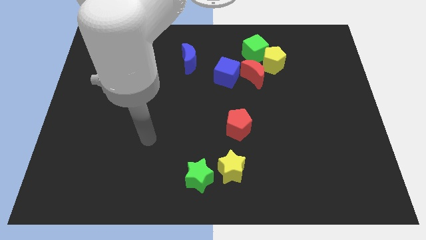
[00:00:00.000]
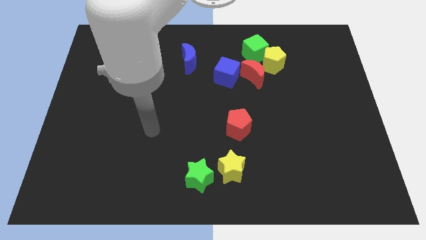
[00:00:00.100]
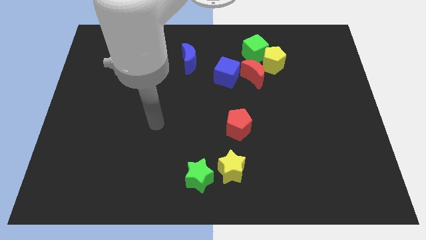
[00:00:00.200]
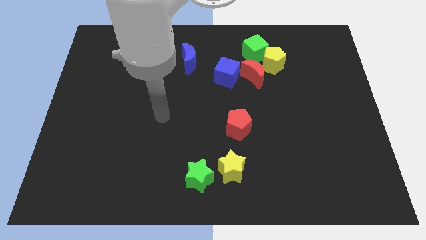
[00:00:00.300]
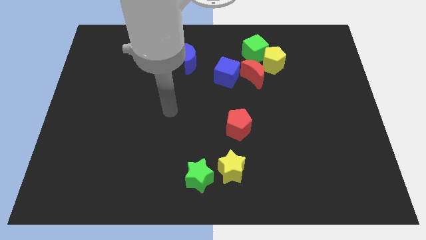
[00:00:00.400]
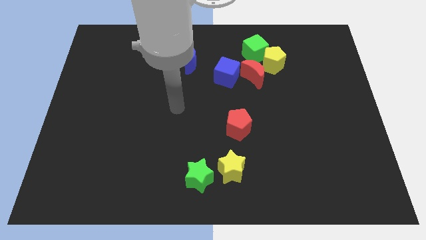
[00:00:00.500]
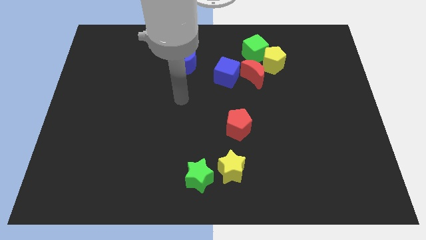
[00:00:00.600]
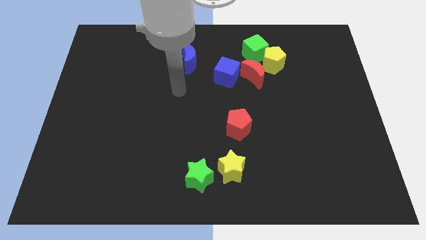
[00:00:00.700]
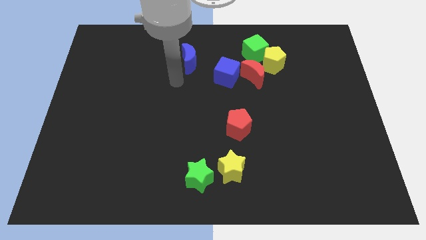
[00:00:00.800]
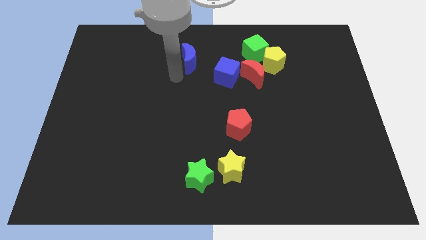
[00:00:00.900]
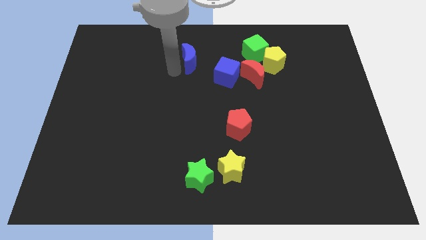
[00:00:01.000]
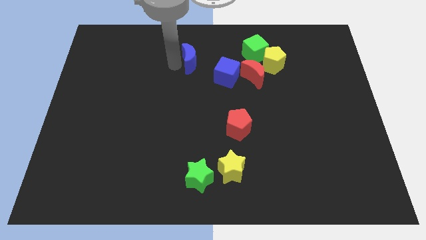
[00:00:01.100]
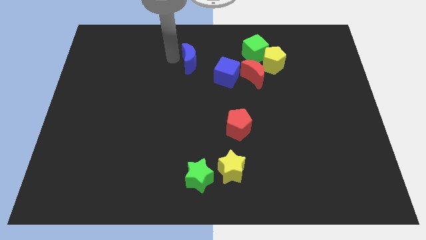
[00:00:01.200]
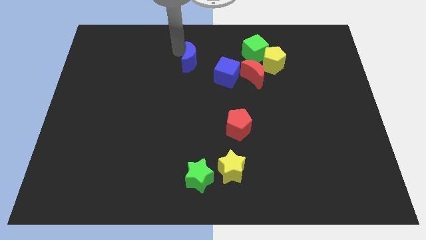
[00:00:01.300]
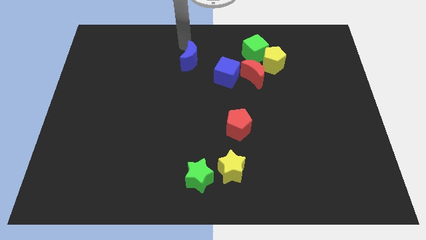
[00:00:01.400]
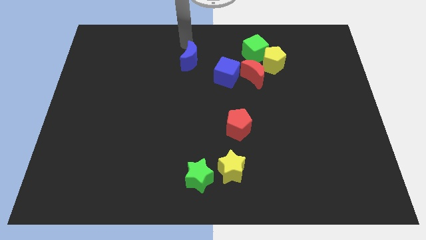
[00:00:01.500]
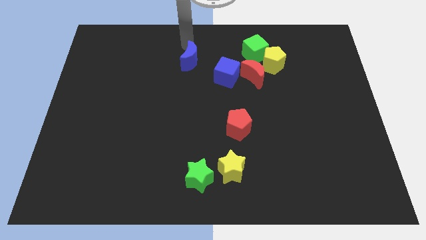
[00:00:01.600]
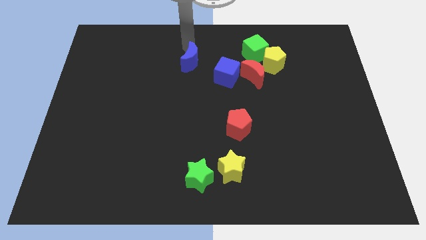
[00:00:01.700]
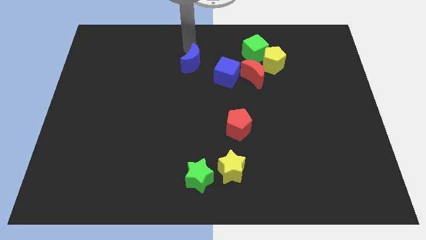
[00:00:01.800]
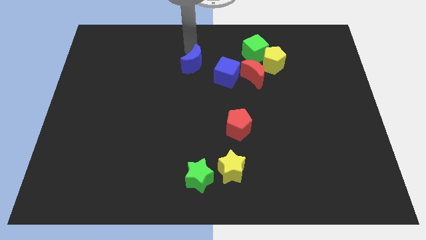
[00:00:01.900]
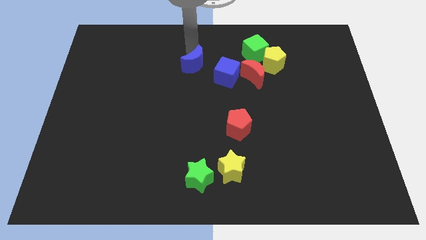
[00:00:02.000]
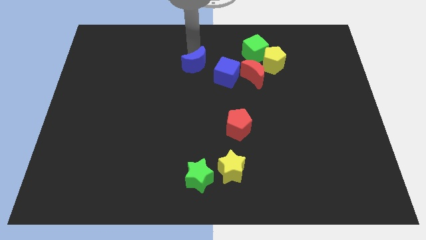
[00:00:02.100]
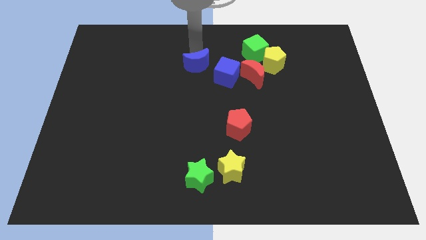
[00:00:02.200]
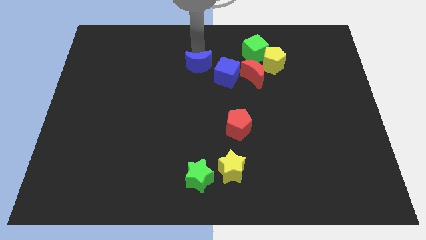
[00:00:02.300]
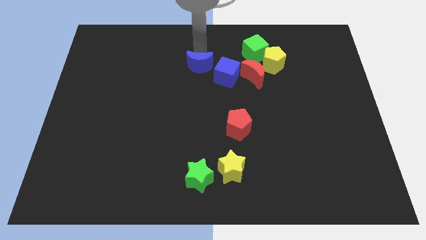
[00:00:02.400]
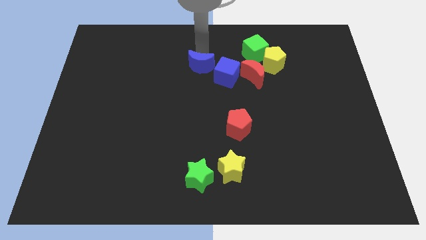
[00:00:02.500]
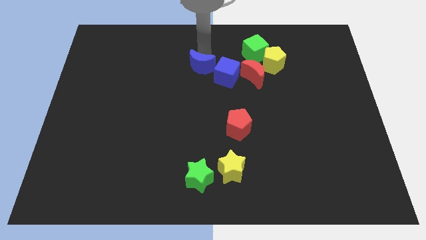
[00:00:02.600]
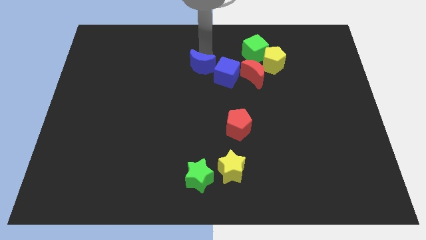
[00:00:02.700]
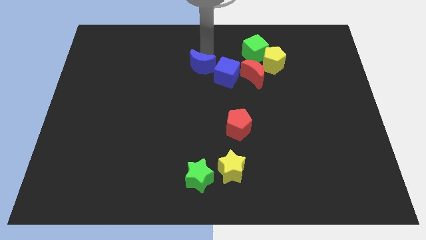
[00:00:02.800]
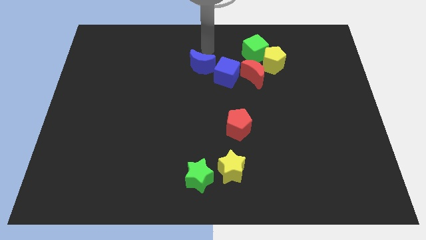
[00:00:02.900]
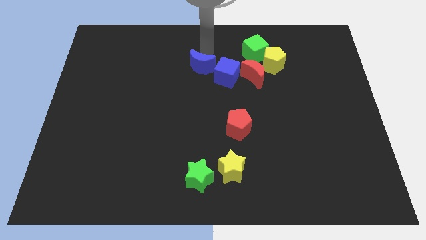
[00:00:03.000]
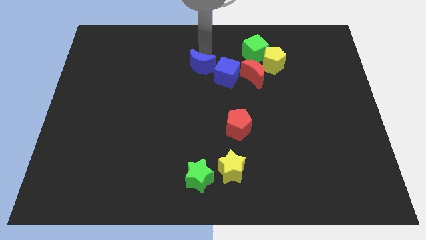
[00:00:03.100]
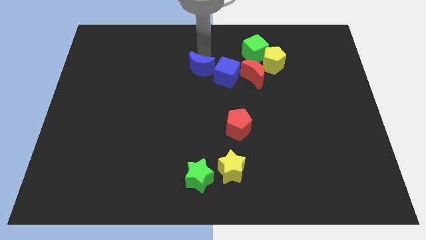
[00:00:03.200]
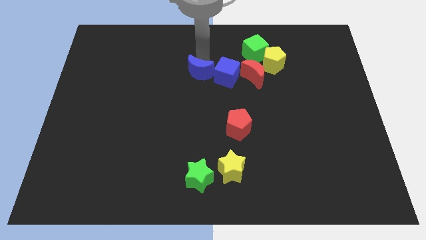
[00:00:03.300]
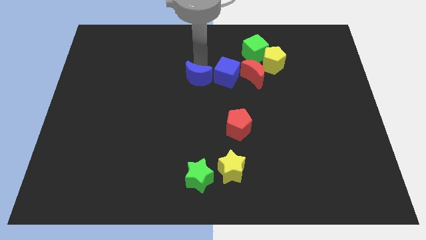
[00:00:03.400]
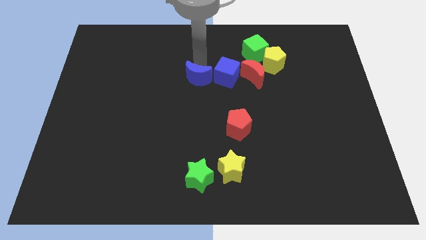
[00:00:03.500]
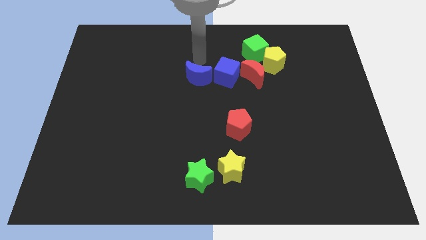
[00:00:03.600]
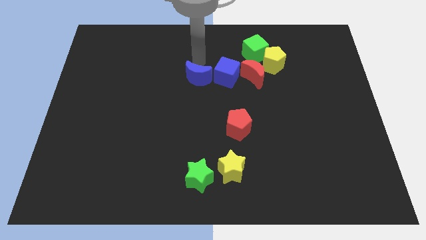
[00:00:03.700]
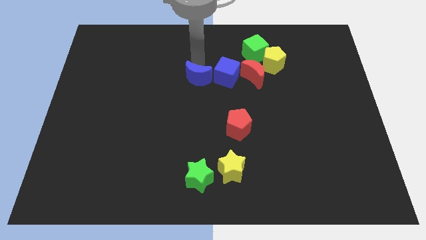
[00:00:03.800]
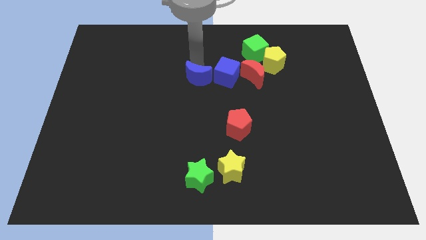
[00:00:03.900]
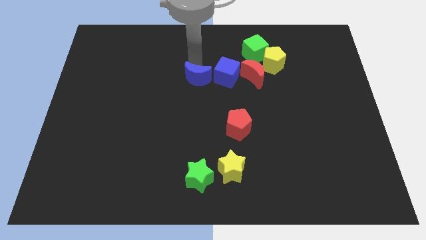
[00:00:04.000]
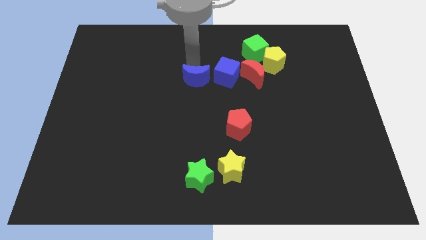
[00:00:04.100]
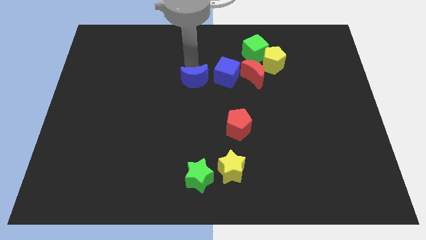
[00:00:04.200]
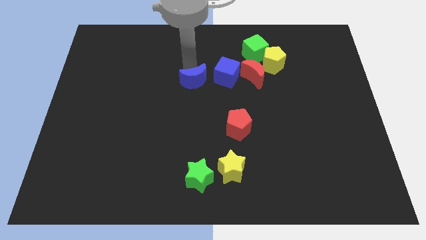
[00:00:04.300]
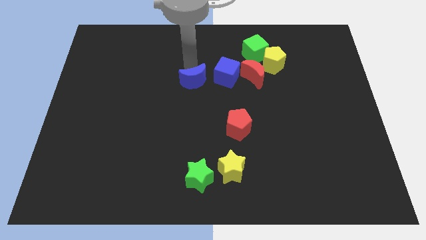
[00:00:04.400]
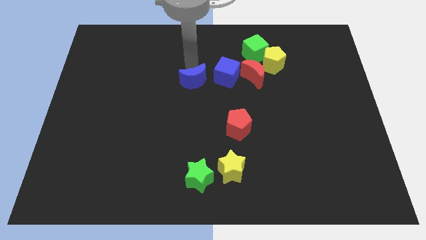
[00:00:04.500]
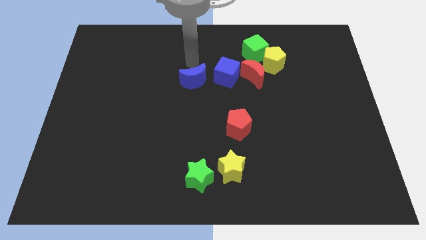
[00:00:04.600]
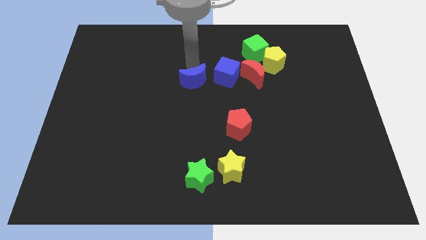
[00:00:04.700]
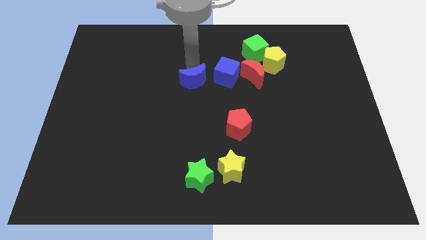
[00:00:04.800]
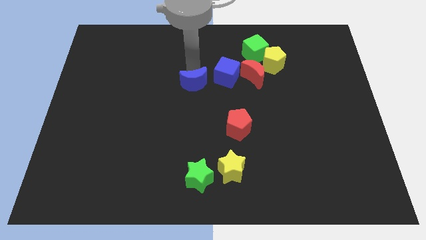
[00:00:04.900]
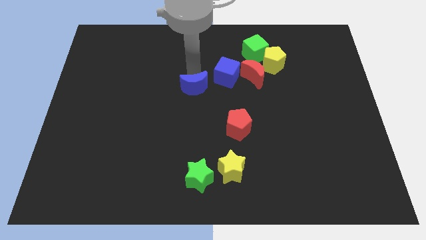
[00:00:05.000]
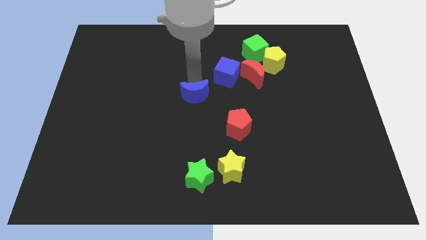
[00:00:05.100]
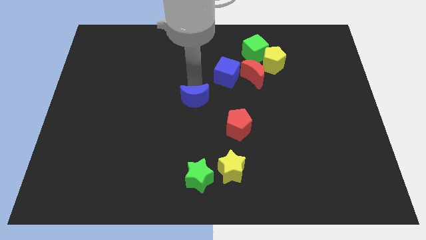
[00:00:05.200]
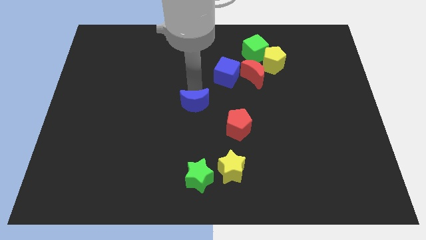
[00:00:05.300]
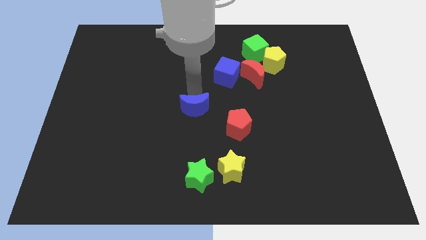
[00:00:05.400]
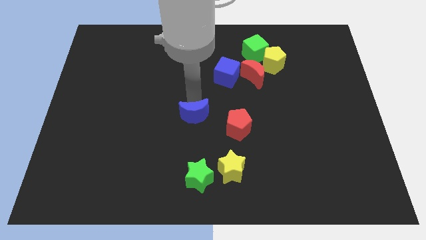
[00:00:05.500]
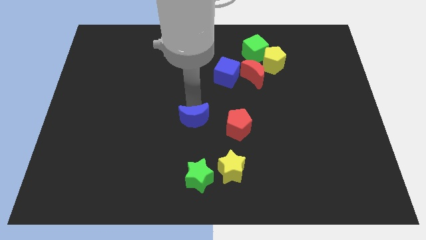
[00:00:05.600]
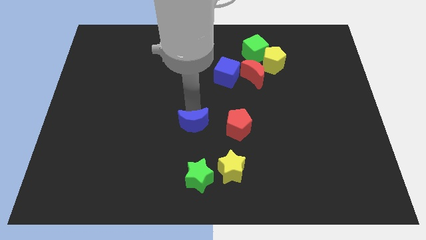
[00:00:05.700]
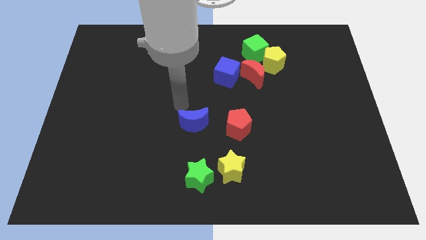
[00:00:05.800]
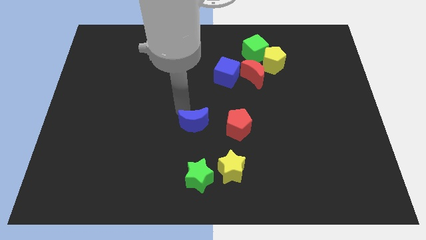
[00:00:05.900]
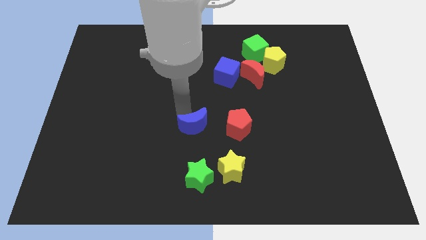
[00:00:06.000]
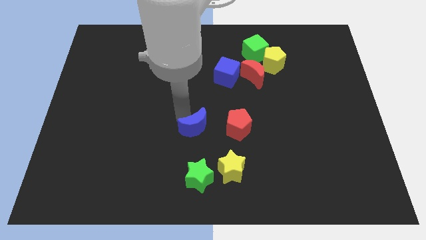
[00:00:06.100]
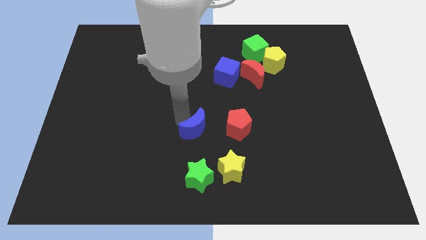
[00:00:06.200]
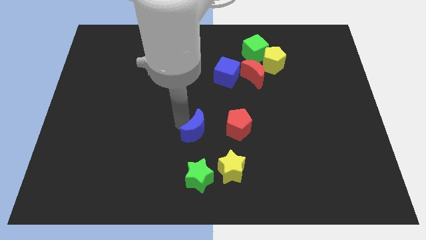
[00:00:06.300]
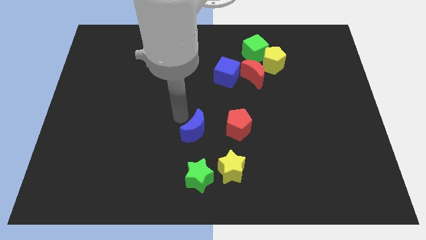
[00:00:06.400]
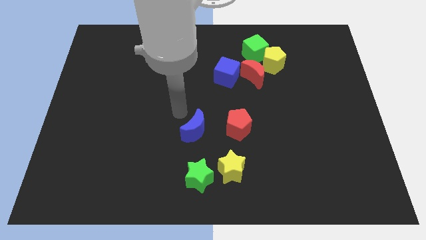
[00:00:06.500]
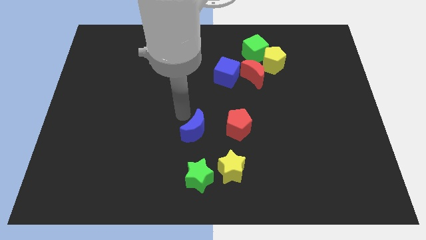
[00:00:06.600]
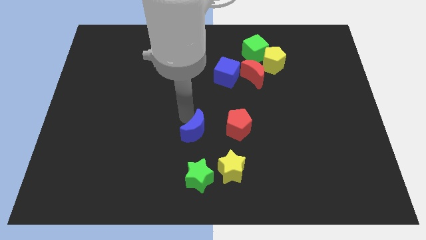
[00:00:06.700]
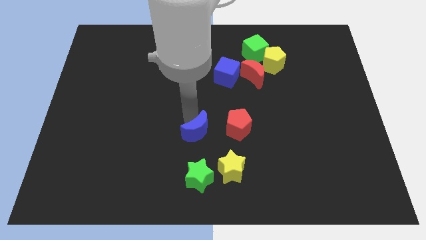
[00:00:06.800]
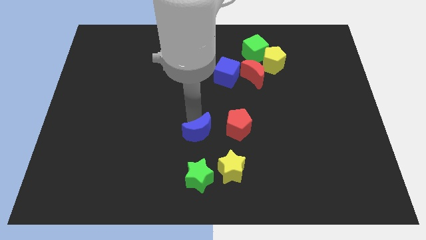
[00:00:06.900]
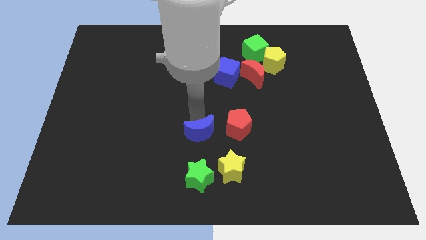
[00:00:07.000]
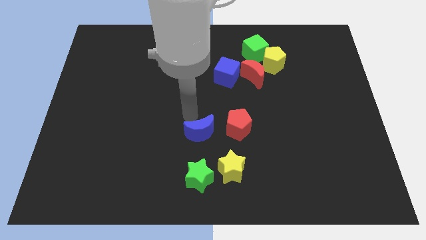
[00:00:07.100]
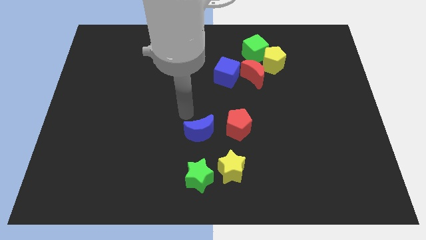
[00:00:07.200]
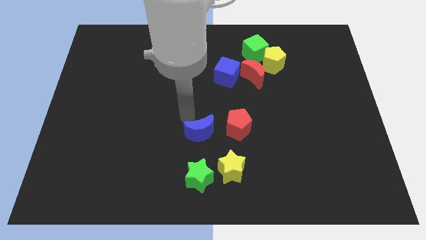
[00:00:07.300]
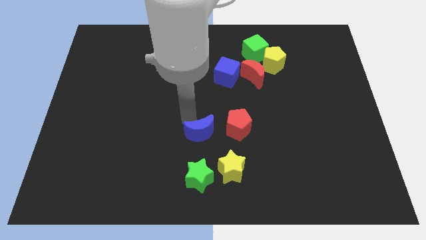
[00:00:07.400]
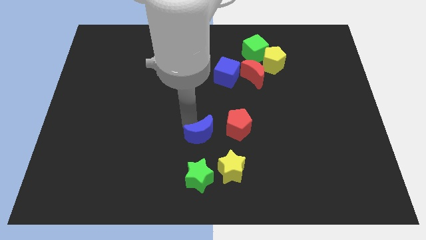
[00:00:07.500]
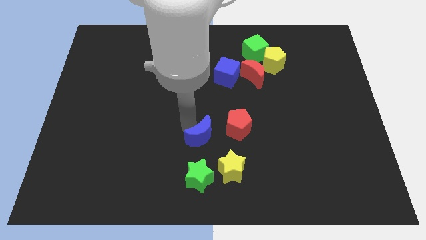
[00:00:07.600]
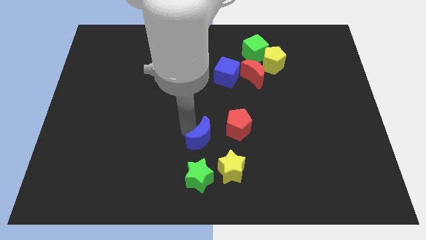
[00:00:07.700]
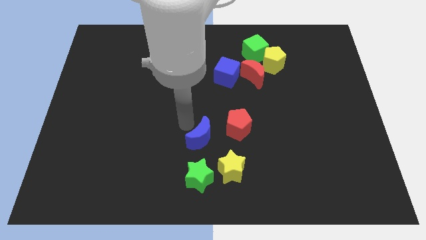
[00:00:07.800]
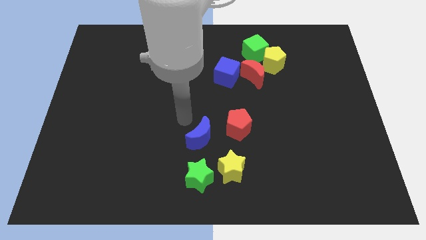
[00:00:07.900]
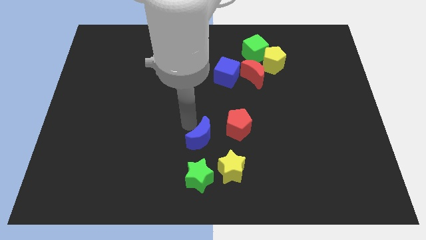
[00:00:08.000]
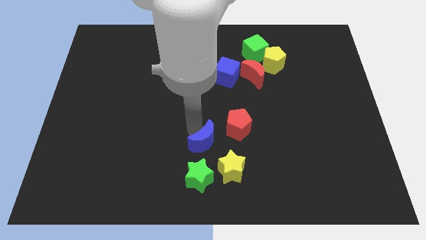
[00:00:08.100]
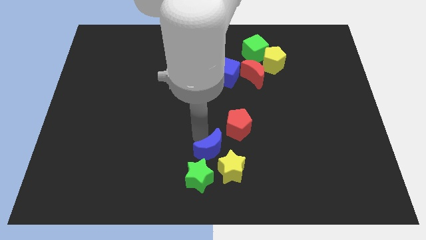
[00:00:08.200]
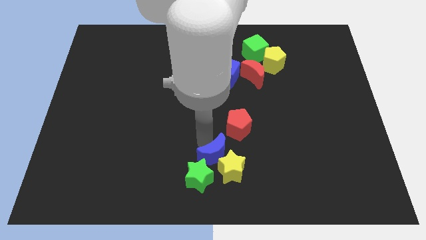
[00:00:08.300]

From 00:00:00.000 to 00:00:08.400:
slide the blue moon close to the yellow star
